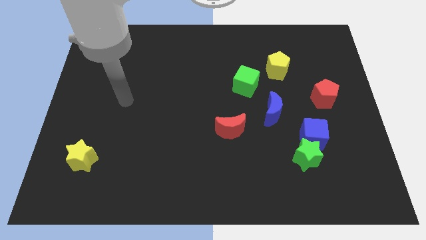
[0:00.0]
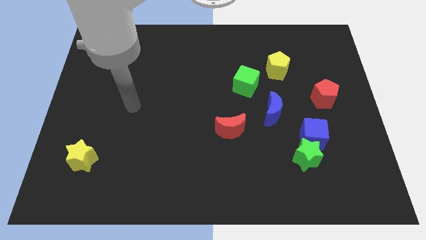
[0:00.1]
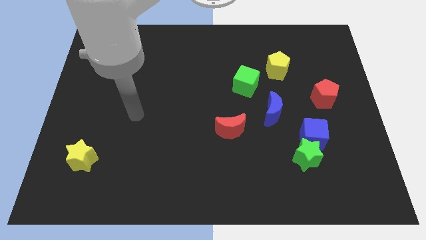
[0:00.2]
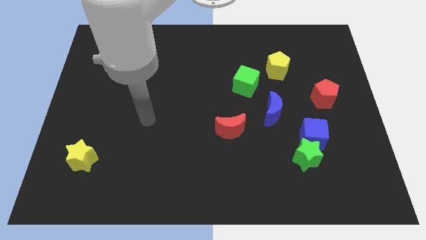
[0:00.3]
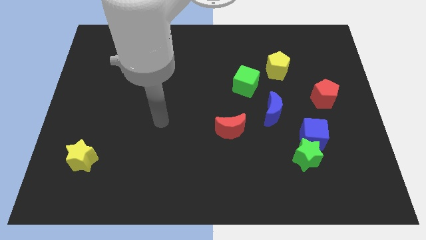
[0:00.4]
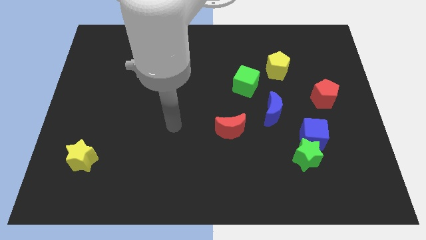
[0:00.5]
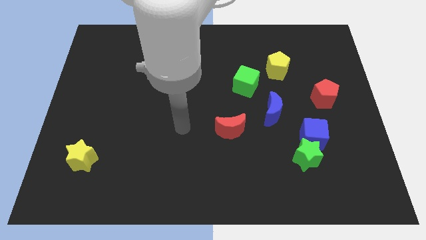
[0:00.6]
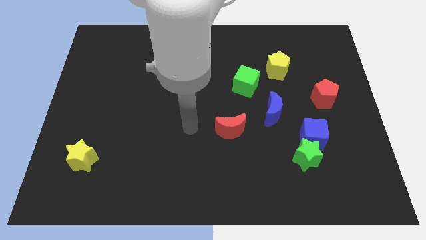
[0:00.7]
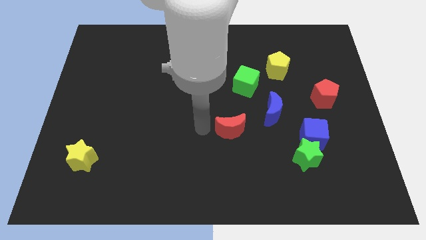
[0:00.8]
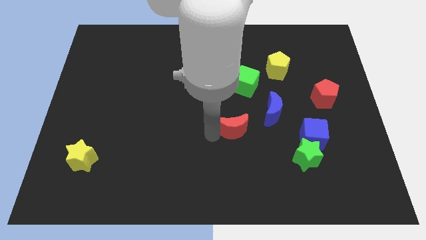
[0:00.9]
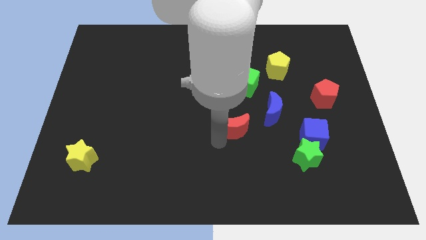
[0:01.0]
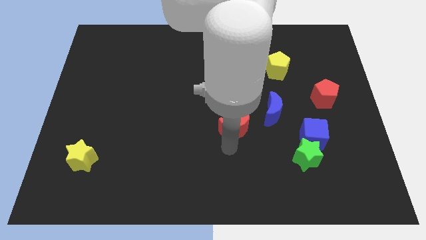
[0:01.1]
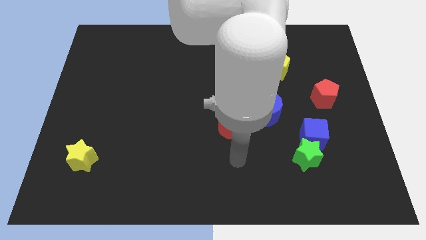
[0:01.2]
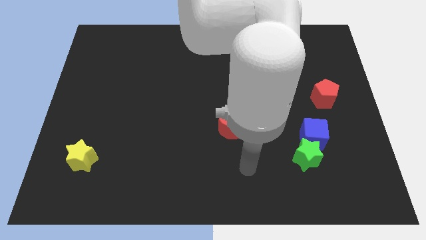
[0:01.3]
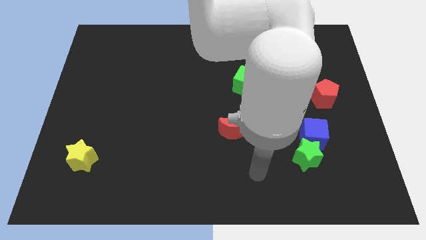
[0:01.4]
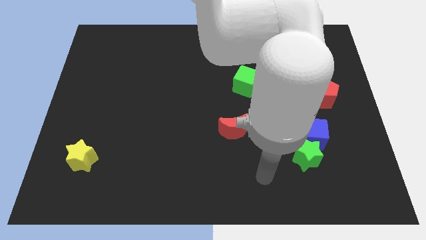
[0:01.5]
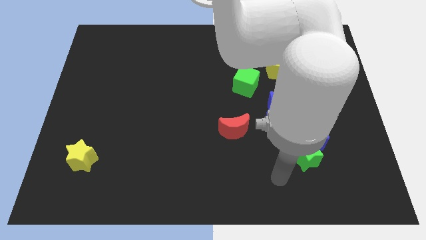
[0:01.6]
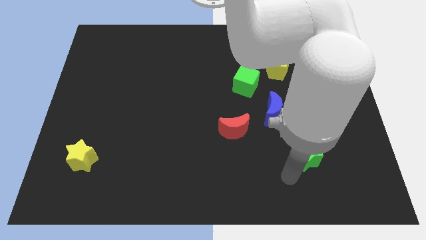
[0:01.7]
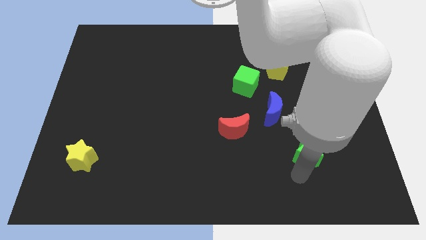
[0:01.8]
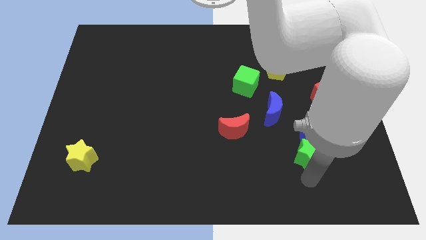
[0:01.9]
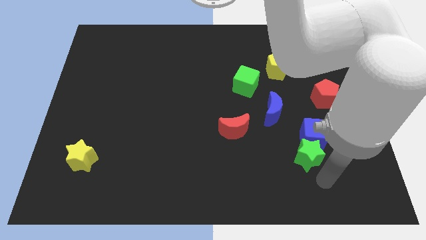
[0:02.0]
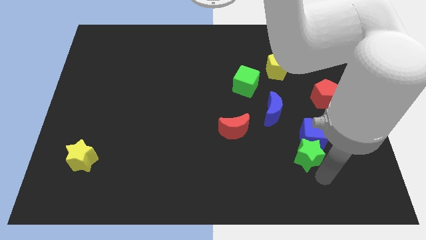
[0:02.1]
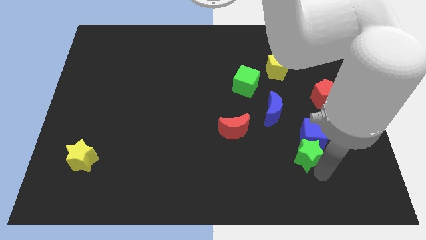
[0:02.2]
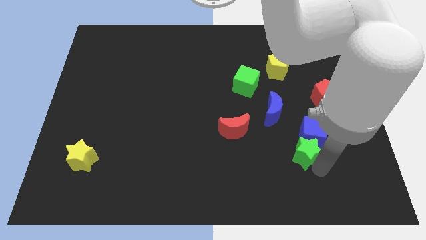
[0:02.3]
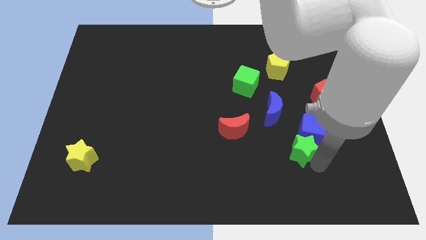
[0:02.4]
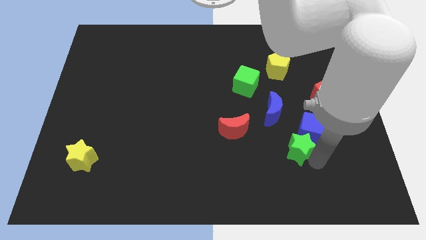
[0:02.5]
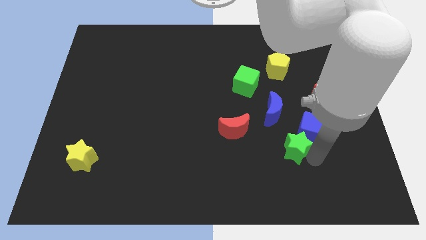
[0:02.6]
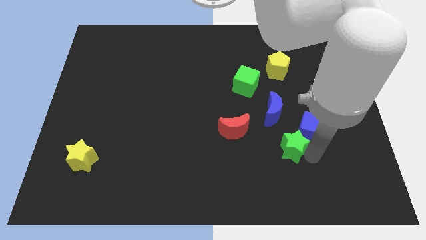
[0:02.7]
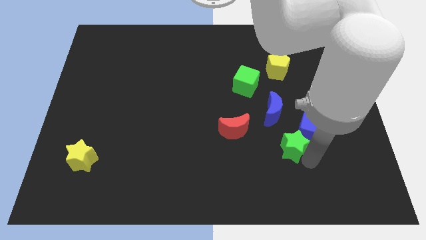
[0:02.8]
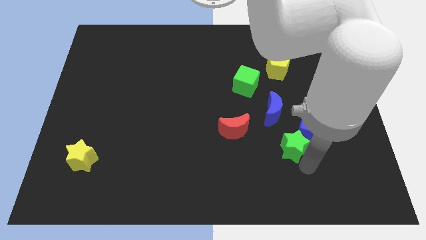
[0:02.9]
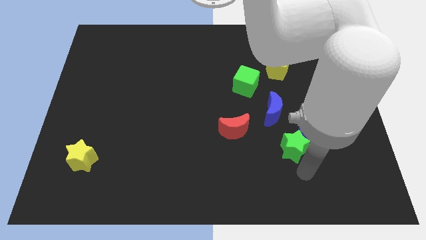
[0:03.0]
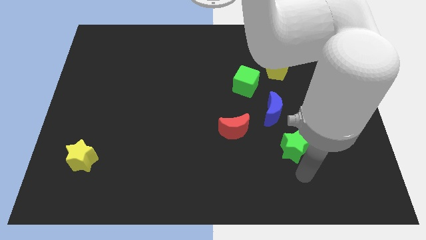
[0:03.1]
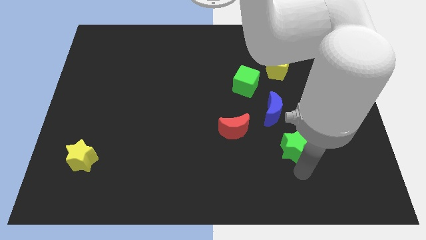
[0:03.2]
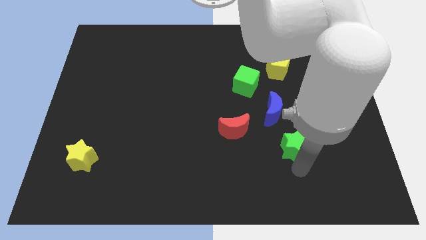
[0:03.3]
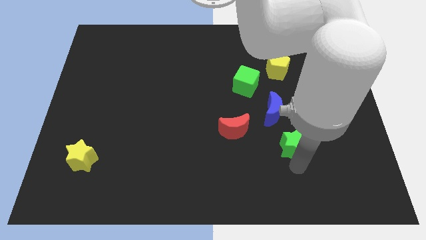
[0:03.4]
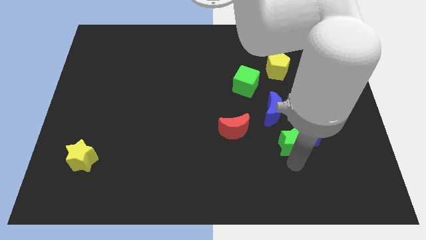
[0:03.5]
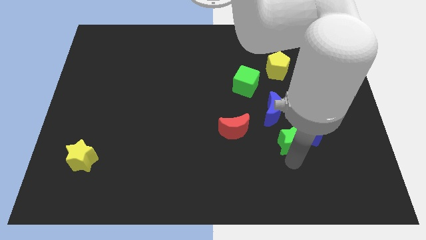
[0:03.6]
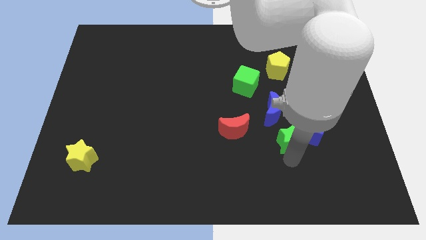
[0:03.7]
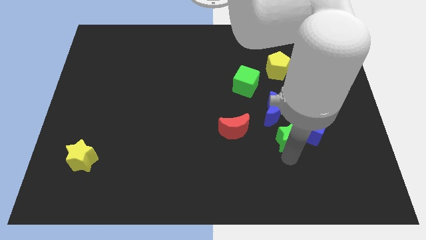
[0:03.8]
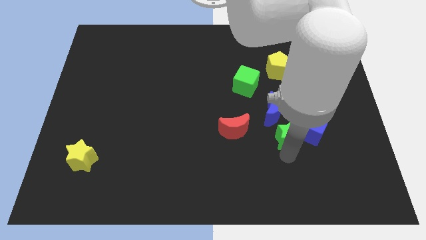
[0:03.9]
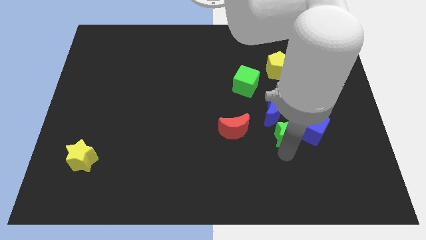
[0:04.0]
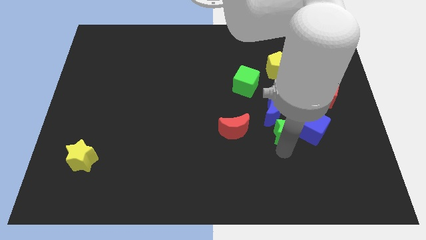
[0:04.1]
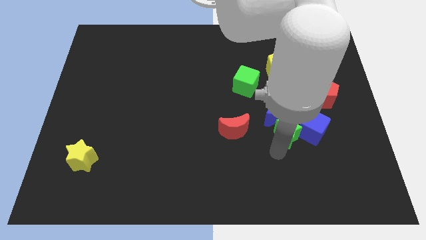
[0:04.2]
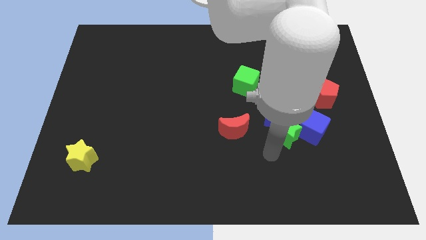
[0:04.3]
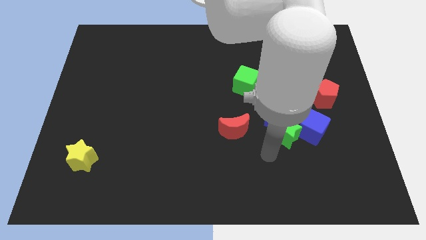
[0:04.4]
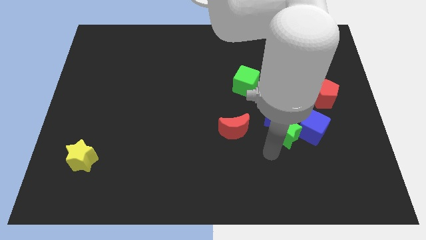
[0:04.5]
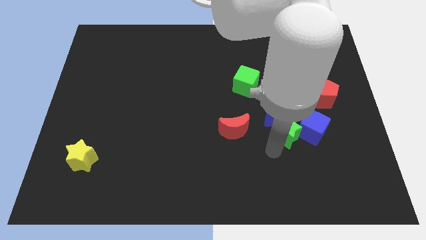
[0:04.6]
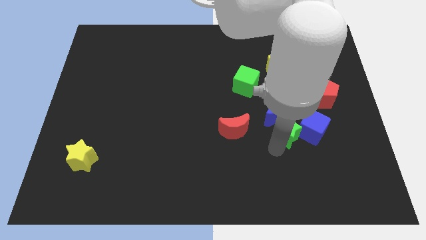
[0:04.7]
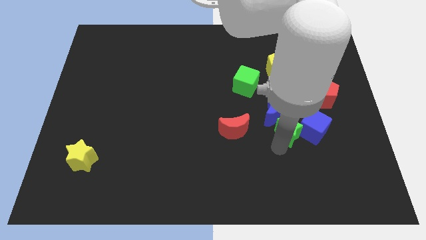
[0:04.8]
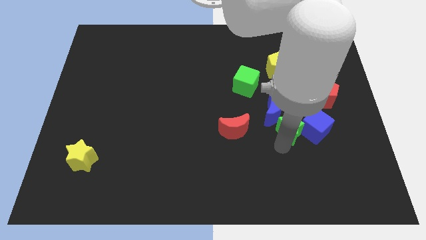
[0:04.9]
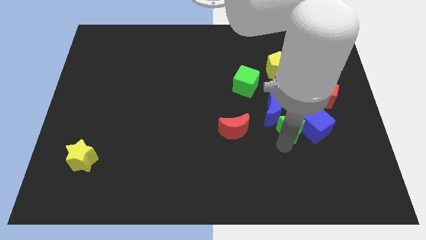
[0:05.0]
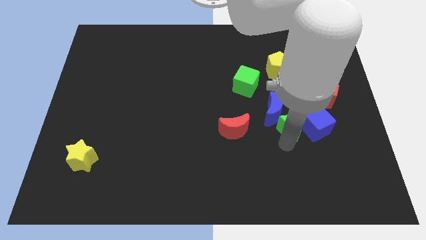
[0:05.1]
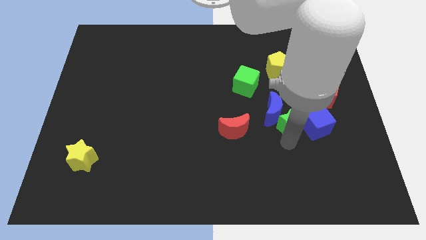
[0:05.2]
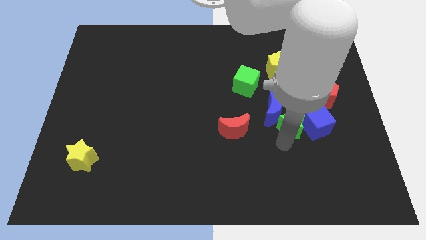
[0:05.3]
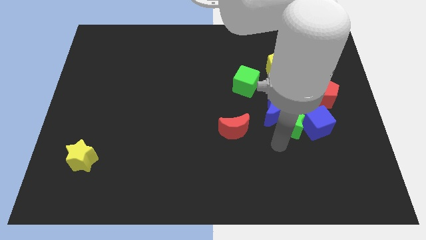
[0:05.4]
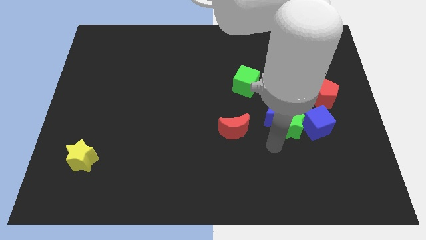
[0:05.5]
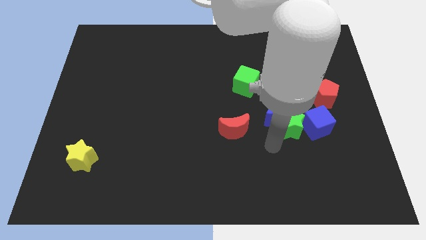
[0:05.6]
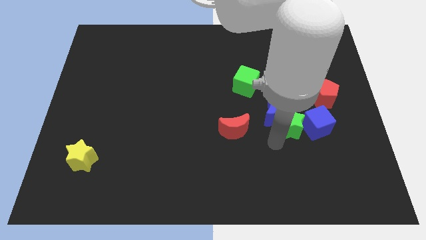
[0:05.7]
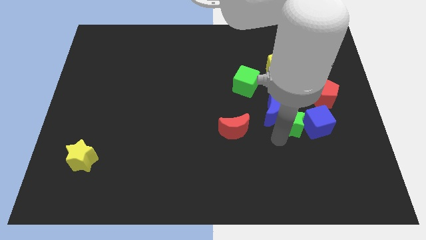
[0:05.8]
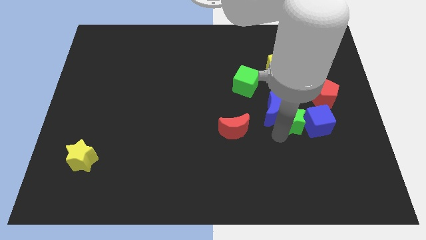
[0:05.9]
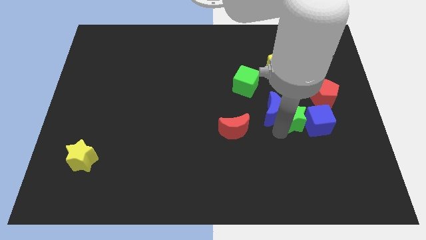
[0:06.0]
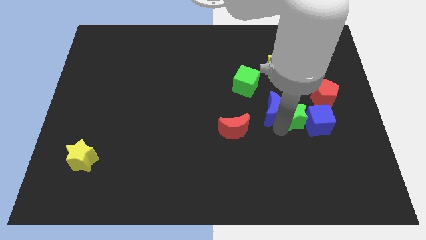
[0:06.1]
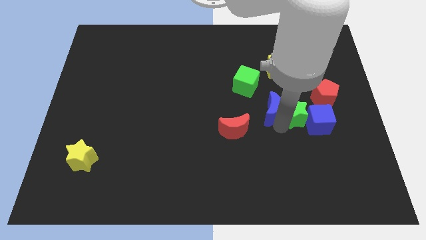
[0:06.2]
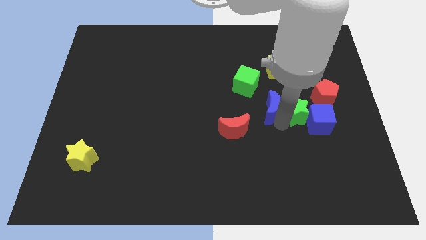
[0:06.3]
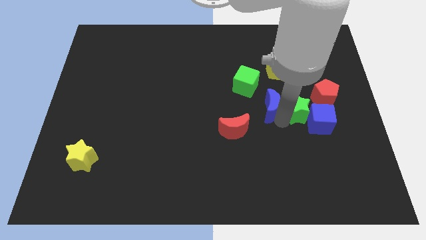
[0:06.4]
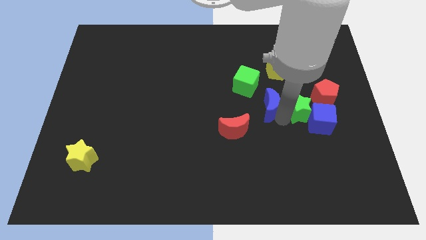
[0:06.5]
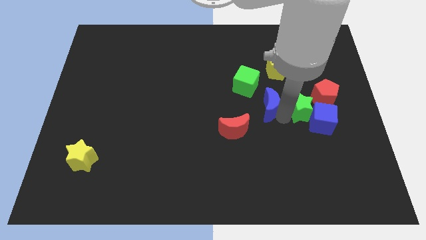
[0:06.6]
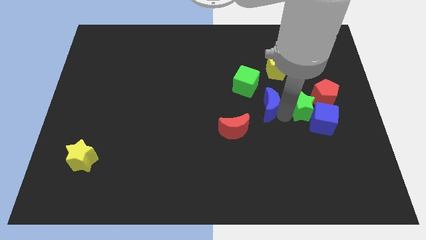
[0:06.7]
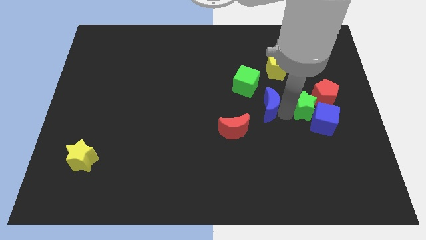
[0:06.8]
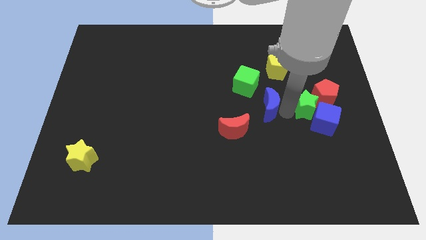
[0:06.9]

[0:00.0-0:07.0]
put the green star towards the red pentagon
